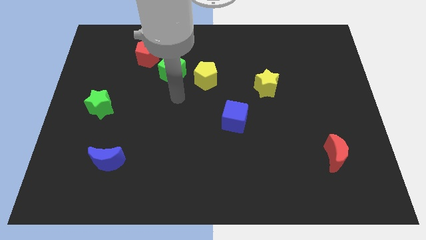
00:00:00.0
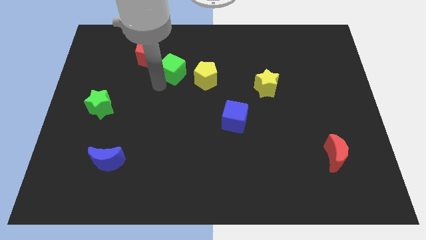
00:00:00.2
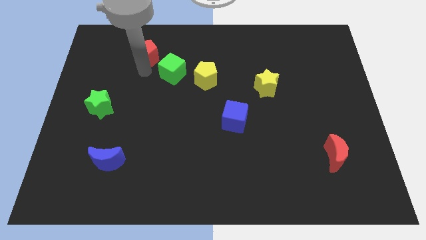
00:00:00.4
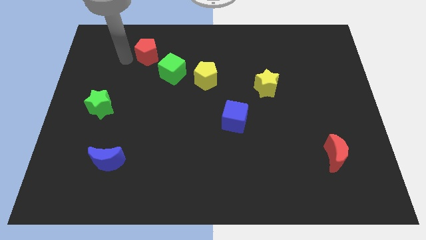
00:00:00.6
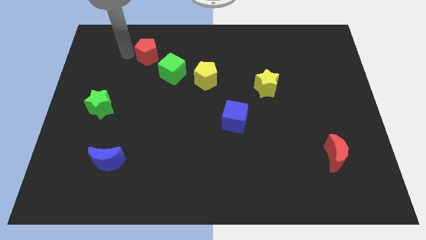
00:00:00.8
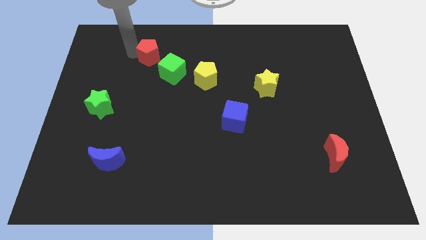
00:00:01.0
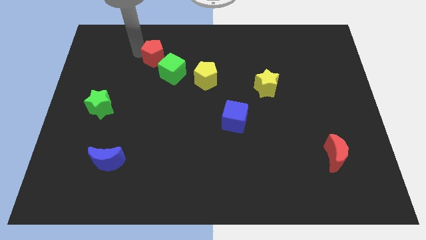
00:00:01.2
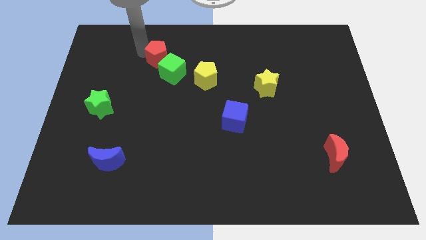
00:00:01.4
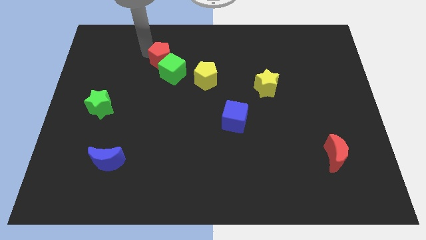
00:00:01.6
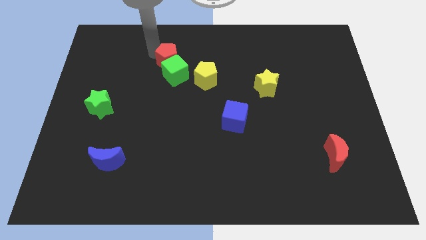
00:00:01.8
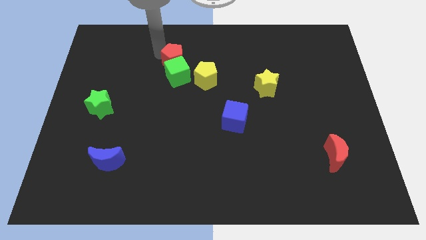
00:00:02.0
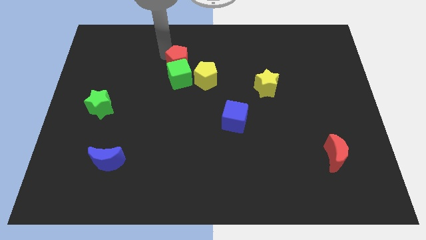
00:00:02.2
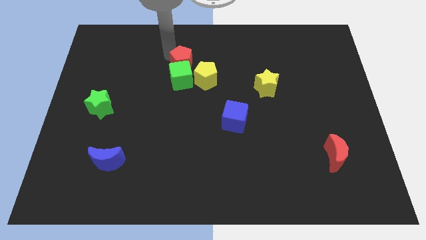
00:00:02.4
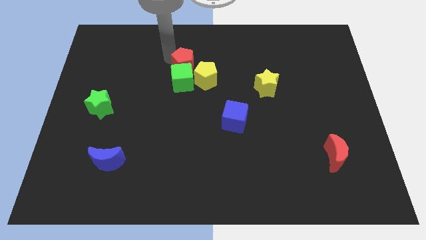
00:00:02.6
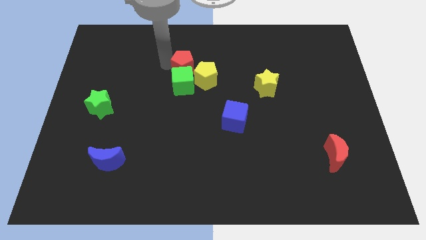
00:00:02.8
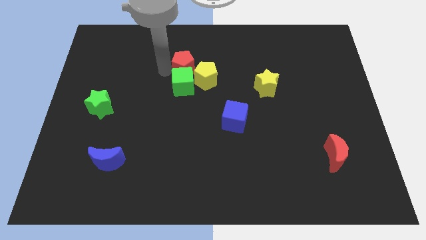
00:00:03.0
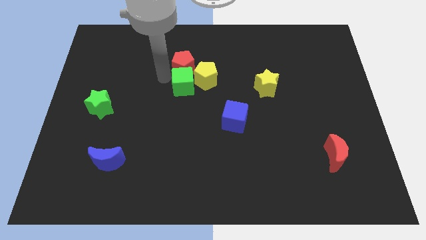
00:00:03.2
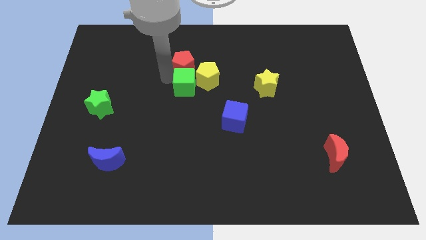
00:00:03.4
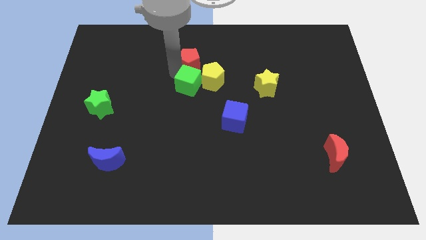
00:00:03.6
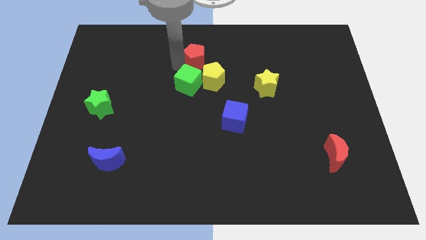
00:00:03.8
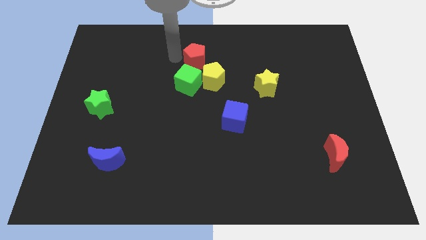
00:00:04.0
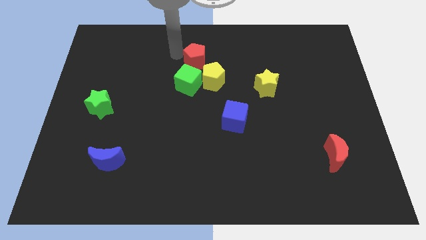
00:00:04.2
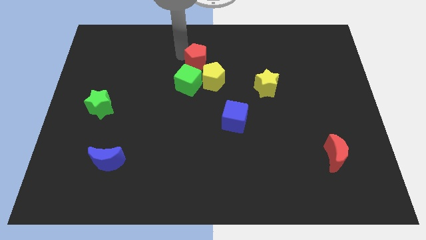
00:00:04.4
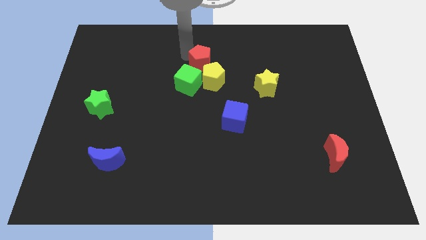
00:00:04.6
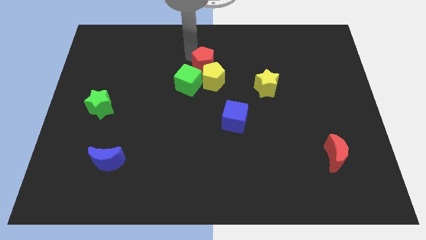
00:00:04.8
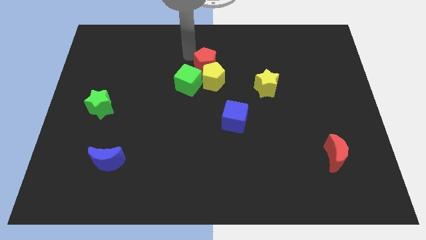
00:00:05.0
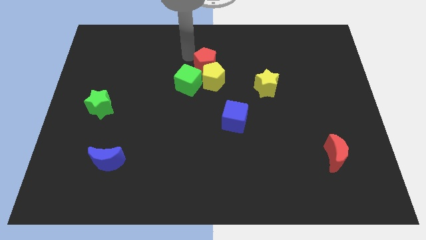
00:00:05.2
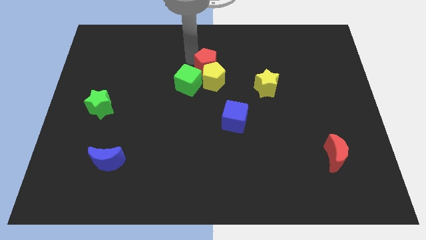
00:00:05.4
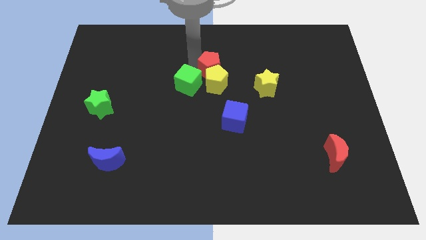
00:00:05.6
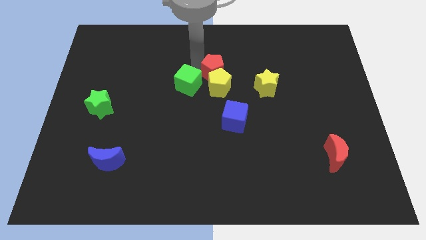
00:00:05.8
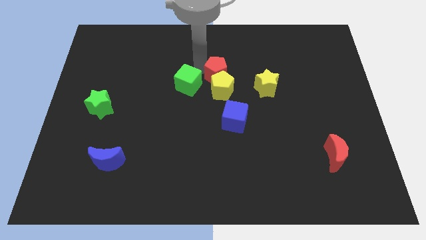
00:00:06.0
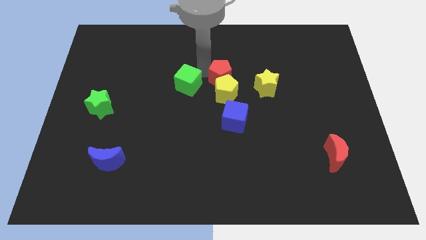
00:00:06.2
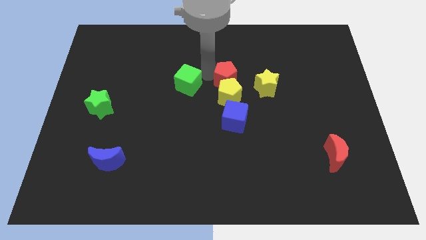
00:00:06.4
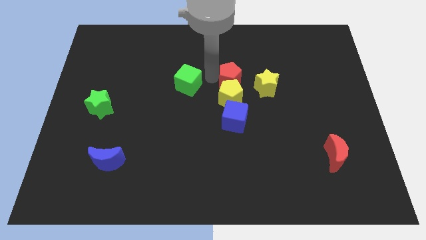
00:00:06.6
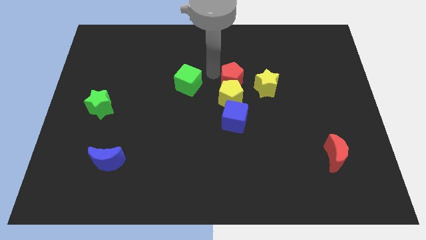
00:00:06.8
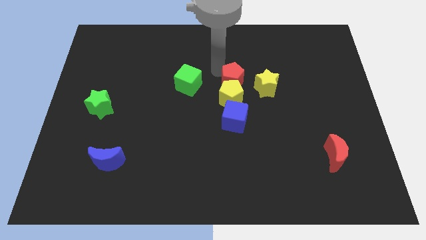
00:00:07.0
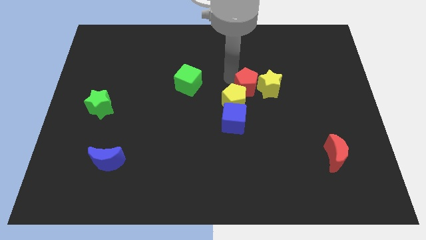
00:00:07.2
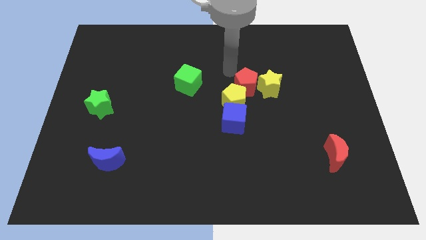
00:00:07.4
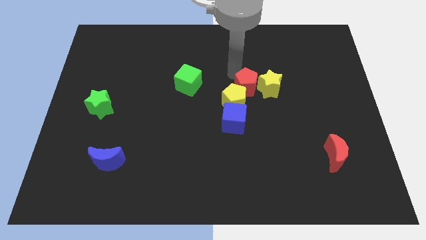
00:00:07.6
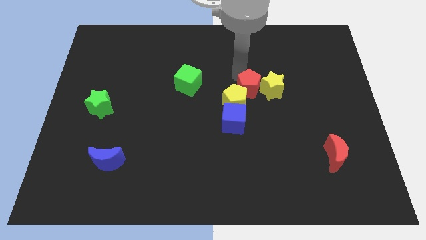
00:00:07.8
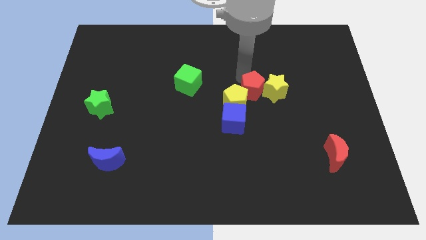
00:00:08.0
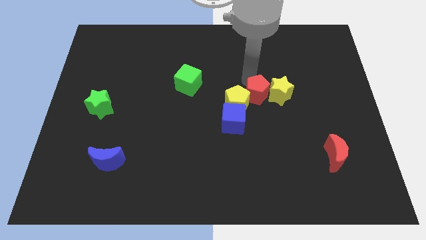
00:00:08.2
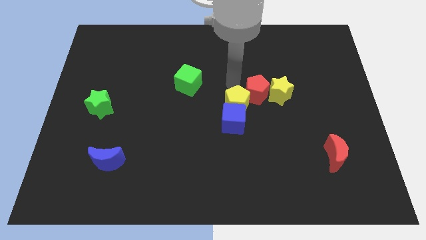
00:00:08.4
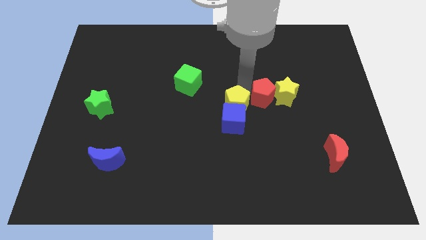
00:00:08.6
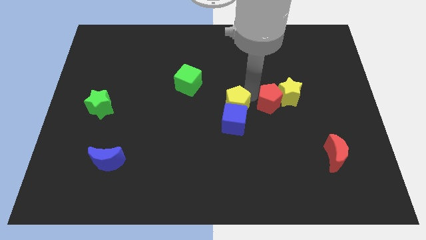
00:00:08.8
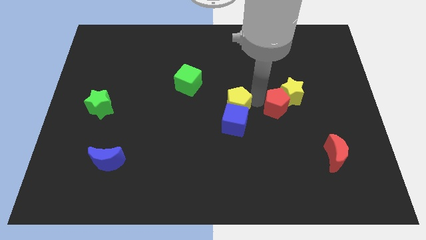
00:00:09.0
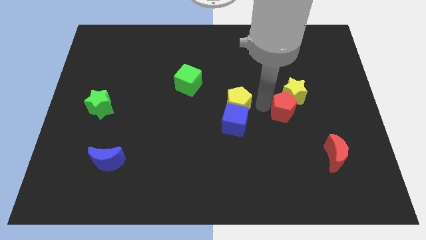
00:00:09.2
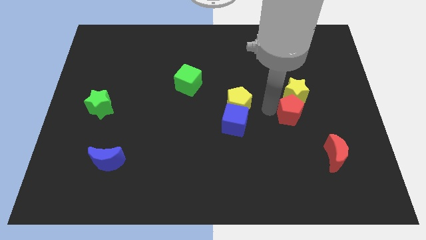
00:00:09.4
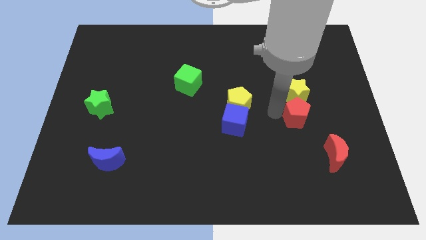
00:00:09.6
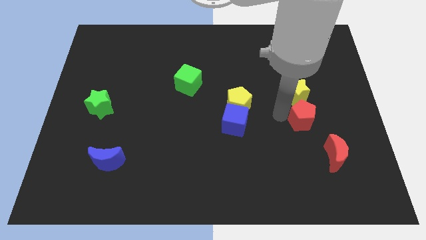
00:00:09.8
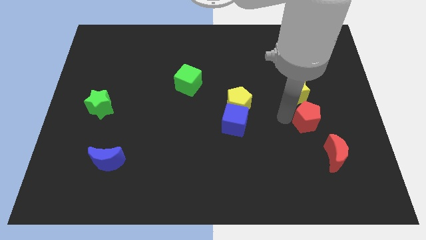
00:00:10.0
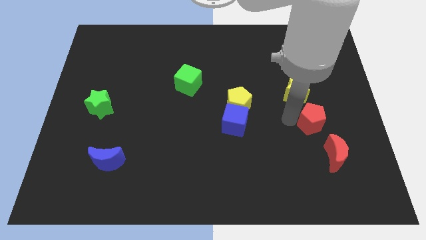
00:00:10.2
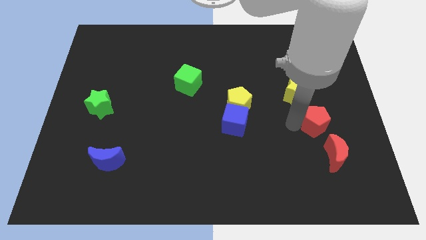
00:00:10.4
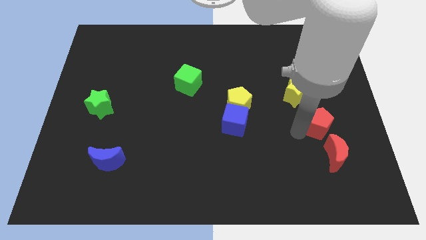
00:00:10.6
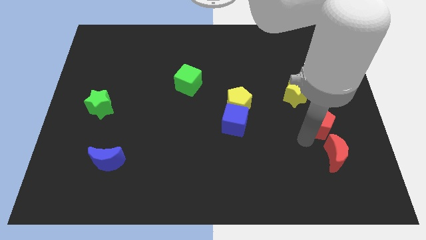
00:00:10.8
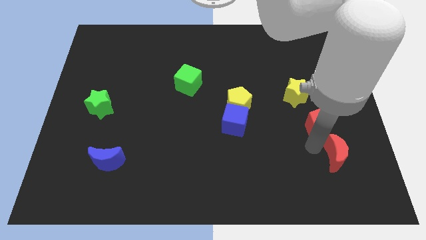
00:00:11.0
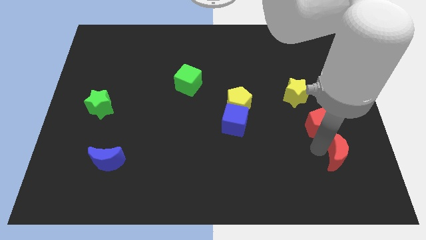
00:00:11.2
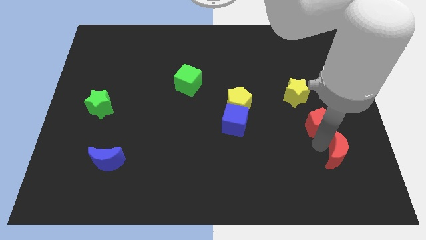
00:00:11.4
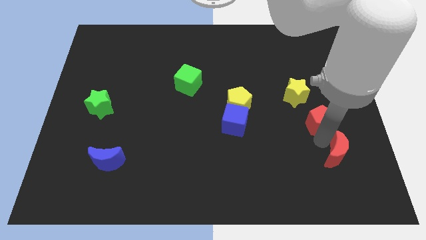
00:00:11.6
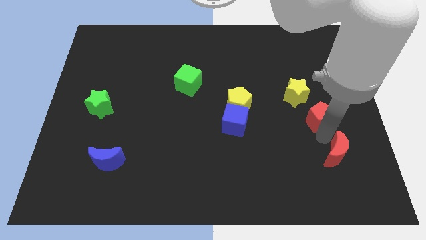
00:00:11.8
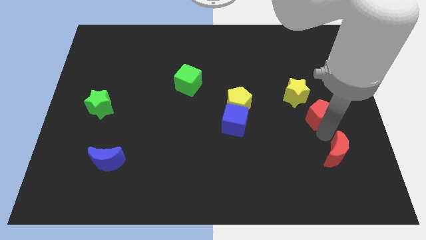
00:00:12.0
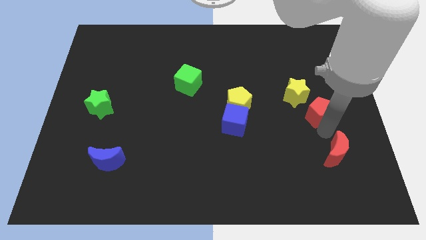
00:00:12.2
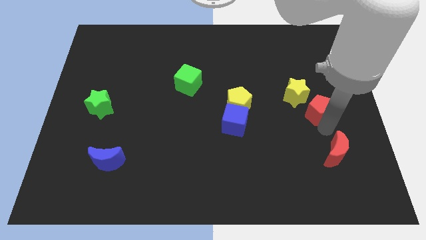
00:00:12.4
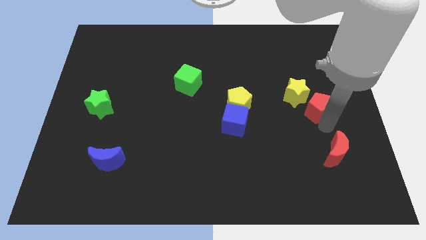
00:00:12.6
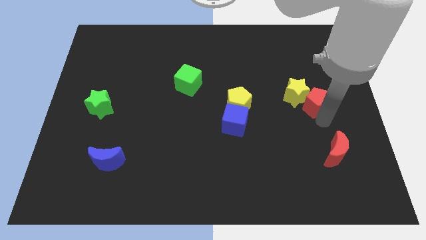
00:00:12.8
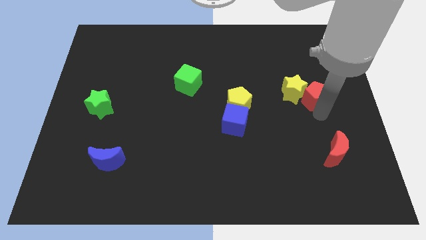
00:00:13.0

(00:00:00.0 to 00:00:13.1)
slide the red pentagon to the bottom right of the yellow star

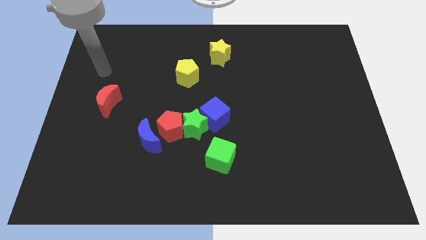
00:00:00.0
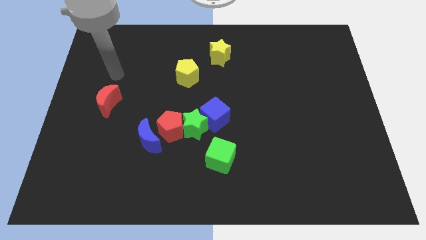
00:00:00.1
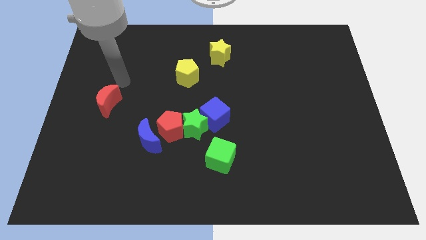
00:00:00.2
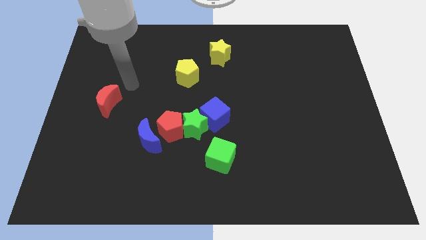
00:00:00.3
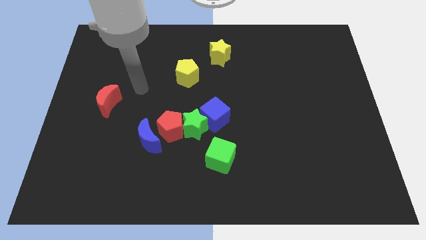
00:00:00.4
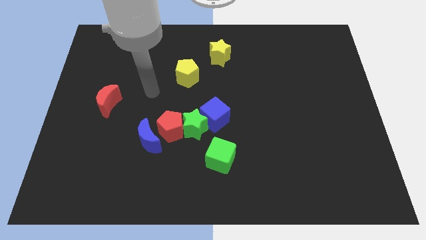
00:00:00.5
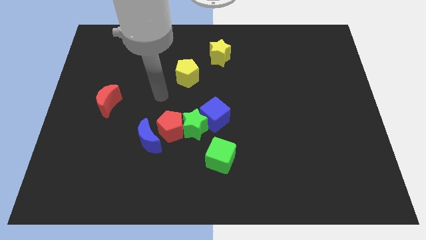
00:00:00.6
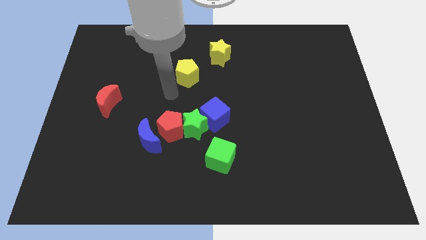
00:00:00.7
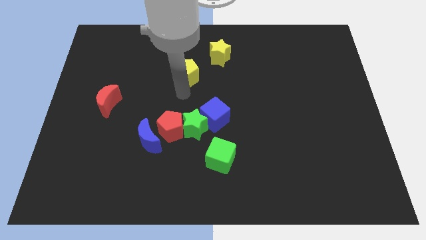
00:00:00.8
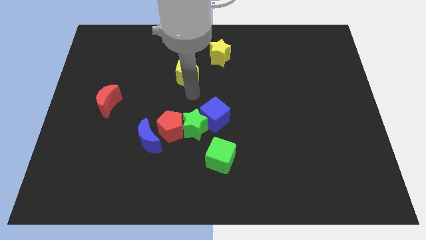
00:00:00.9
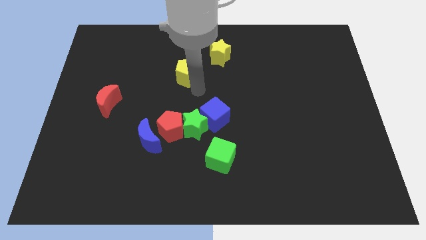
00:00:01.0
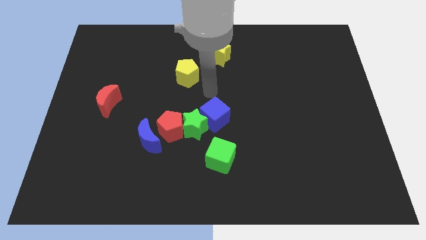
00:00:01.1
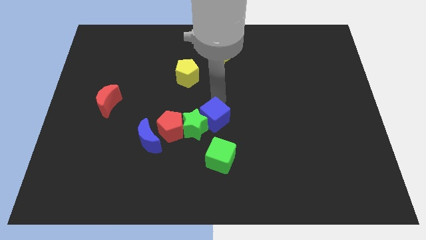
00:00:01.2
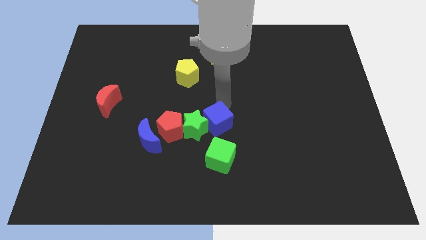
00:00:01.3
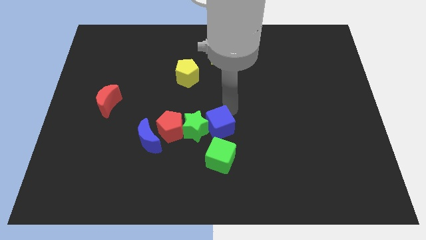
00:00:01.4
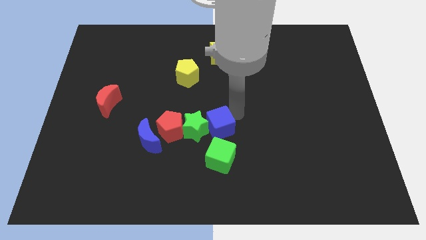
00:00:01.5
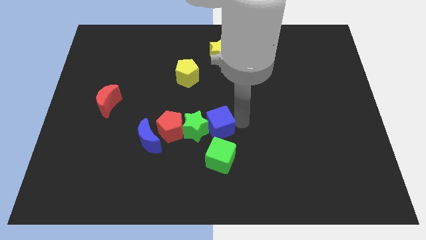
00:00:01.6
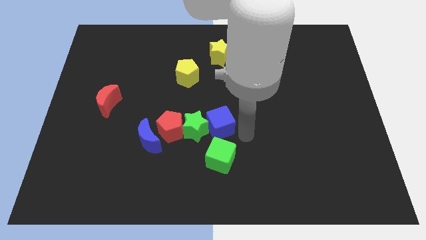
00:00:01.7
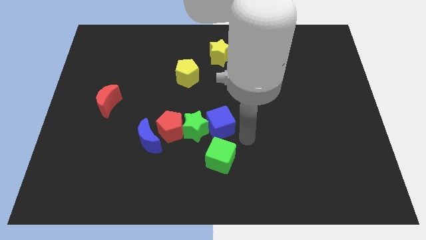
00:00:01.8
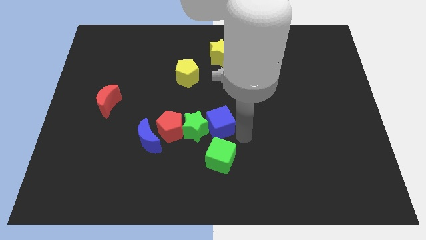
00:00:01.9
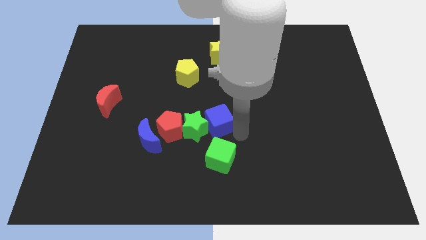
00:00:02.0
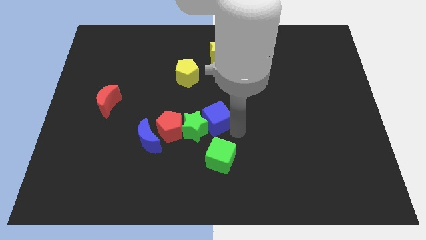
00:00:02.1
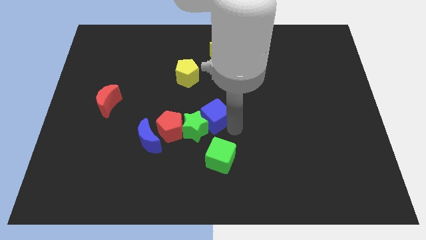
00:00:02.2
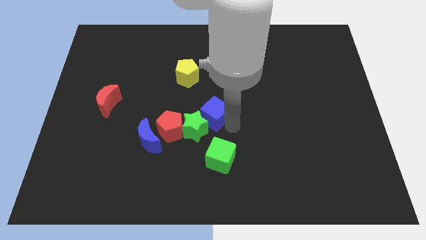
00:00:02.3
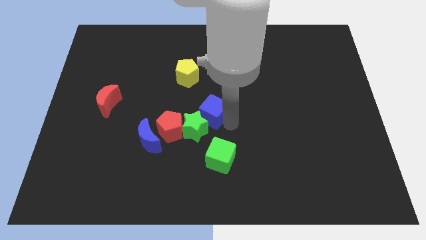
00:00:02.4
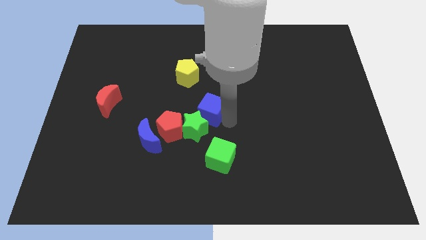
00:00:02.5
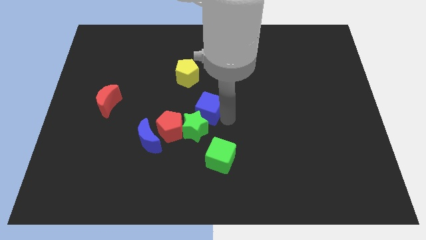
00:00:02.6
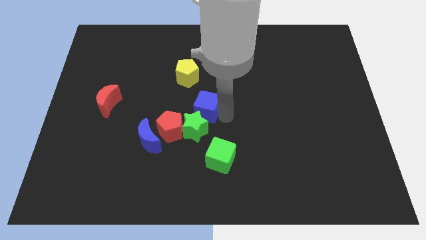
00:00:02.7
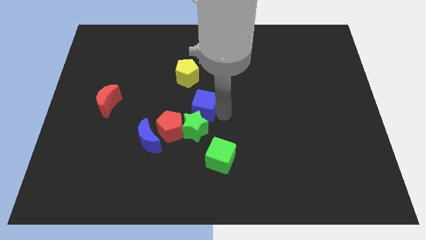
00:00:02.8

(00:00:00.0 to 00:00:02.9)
move the blue cube to the bottom side of the yellow pentagon
